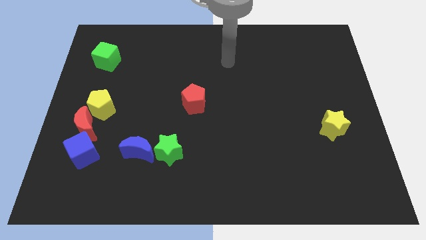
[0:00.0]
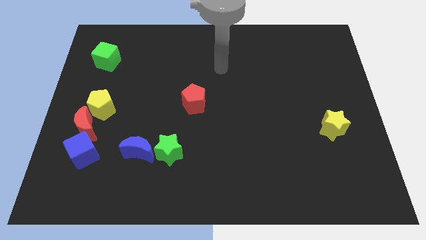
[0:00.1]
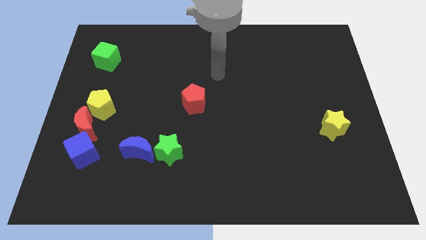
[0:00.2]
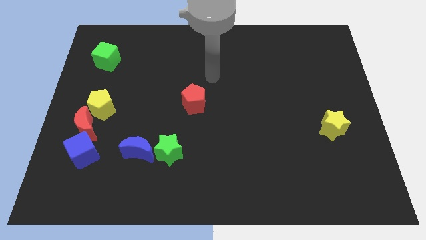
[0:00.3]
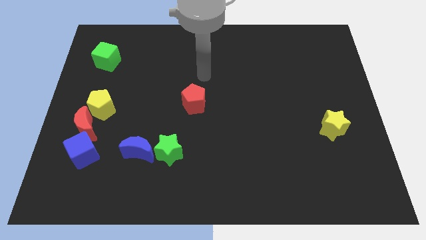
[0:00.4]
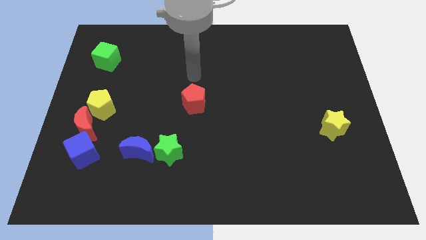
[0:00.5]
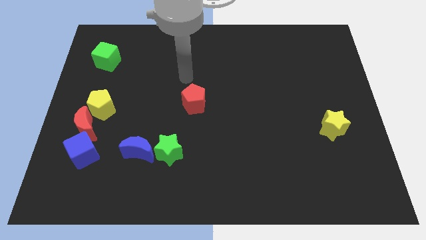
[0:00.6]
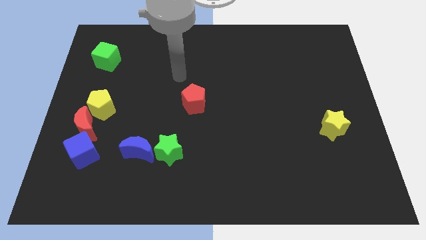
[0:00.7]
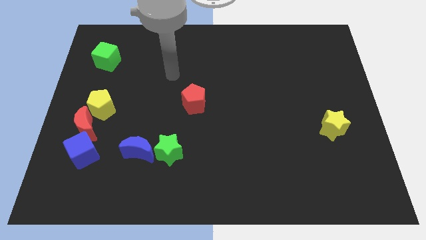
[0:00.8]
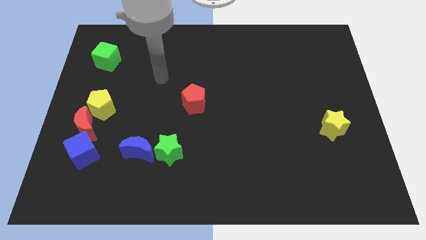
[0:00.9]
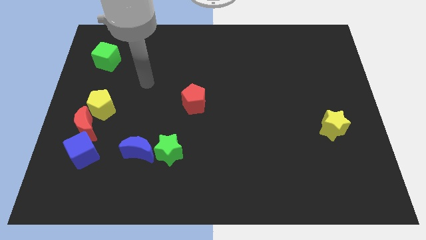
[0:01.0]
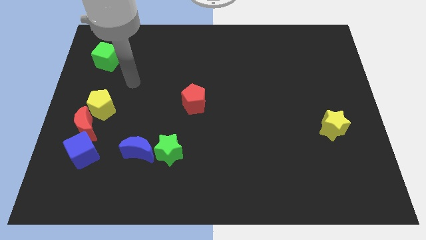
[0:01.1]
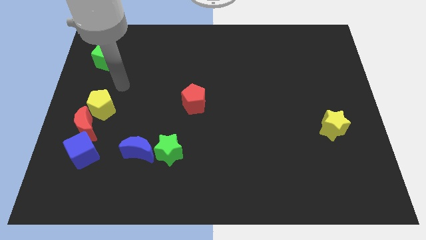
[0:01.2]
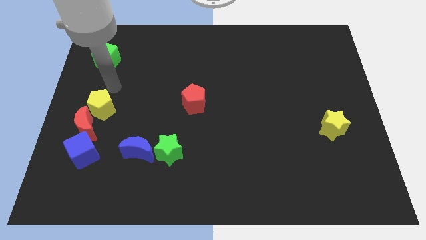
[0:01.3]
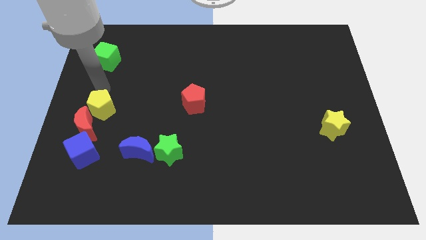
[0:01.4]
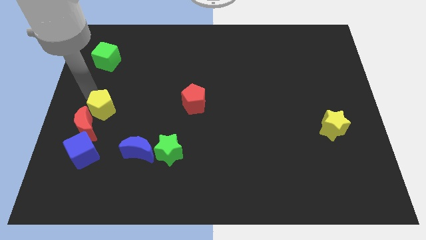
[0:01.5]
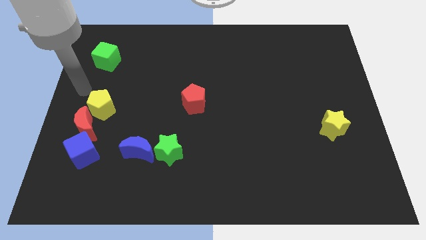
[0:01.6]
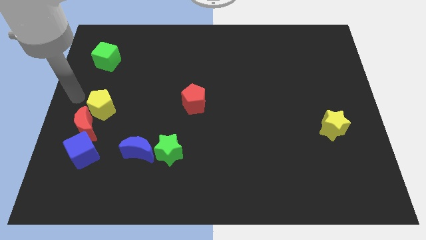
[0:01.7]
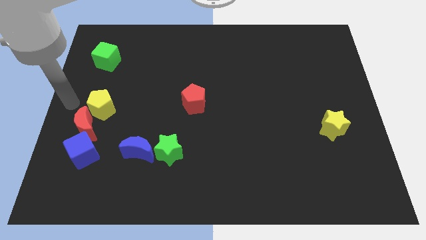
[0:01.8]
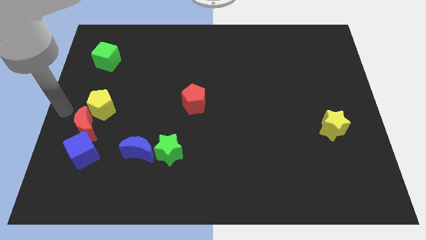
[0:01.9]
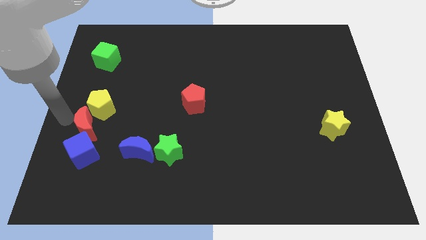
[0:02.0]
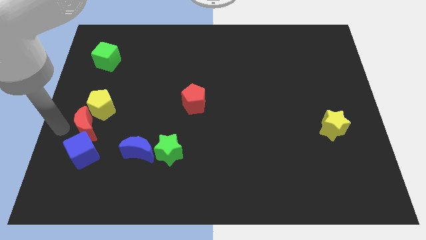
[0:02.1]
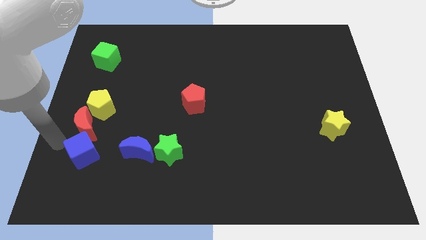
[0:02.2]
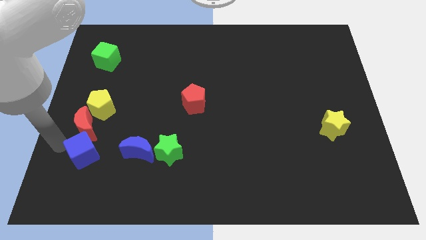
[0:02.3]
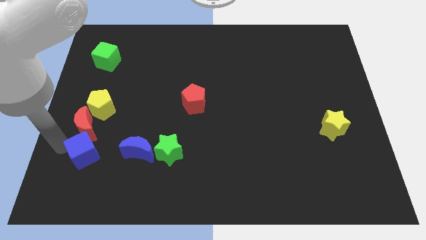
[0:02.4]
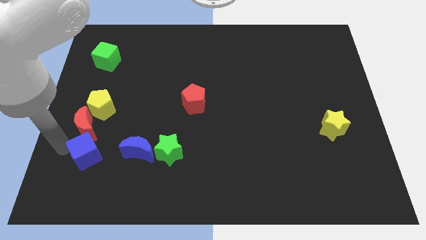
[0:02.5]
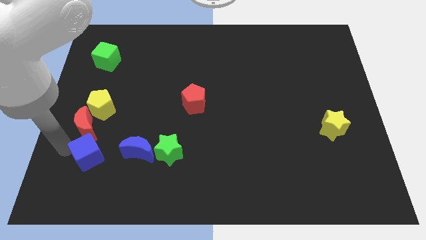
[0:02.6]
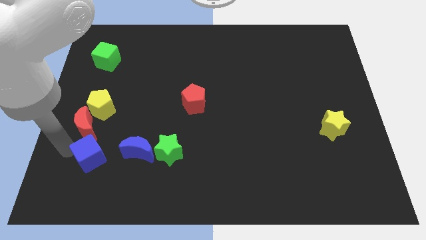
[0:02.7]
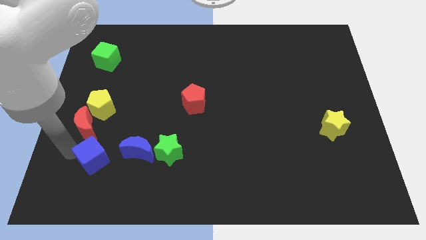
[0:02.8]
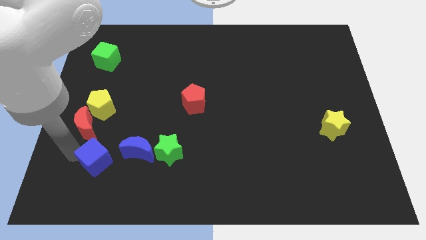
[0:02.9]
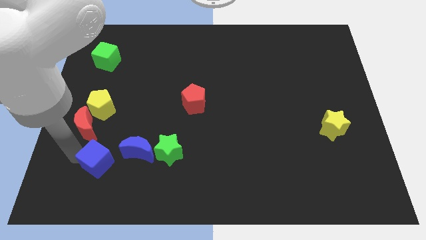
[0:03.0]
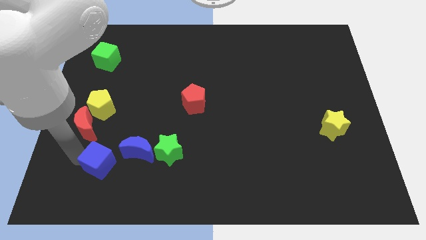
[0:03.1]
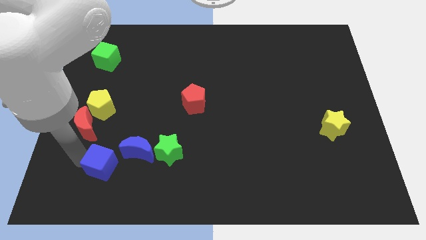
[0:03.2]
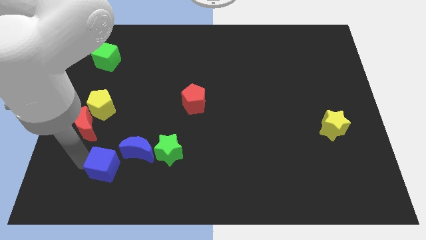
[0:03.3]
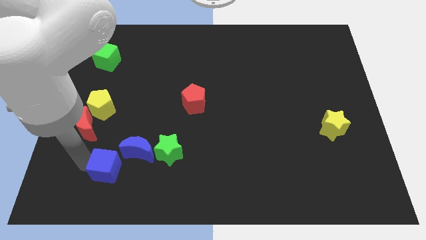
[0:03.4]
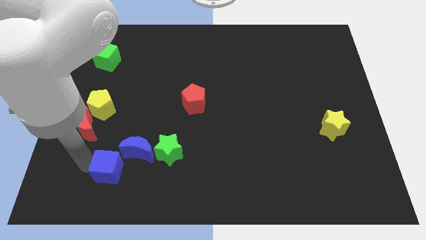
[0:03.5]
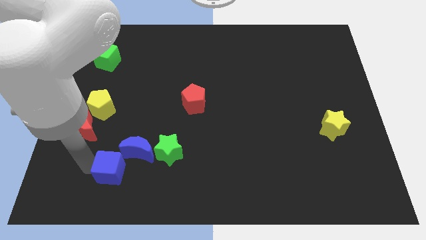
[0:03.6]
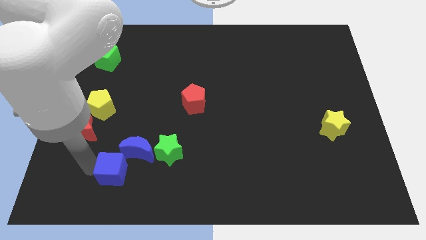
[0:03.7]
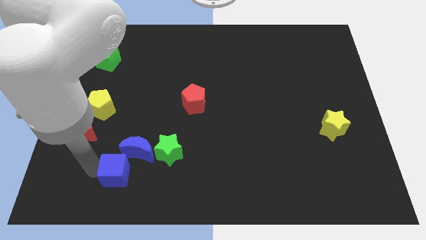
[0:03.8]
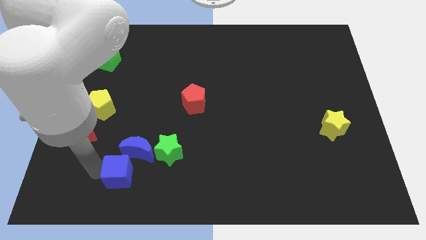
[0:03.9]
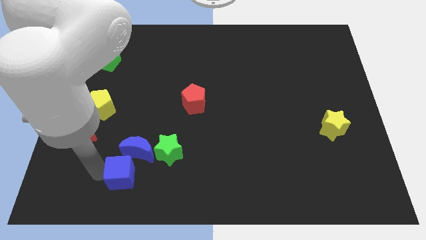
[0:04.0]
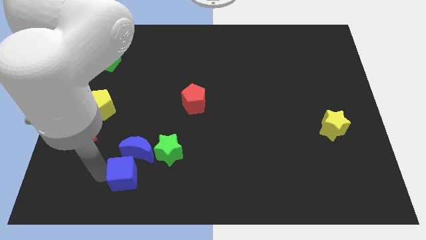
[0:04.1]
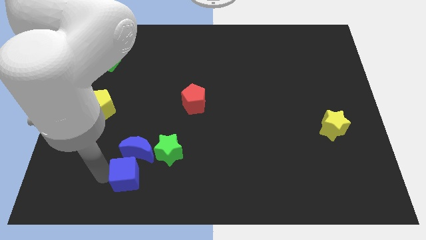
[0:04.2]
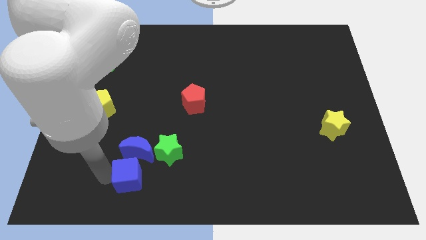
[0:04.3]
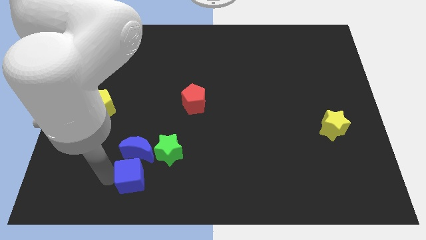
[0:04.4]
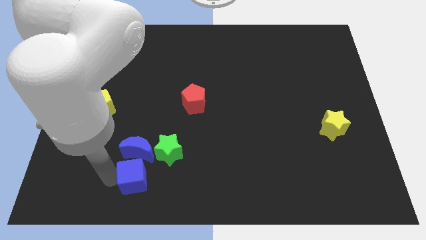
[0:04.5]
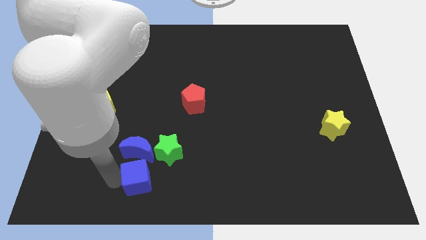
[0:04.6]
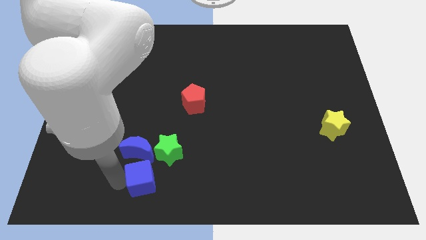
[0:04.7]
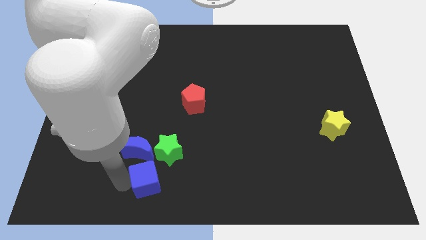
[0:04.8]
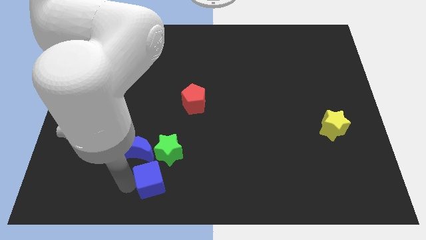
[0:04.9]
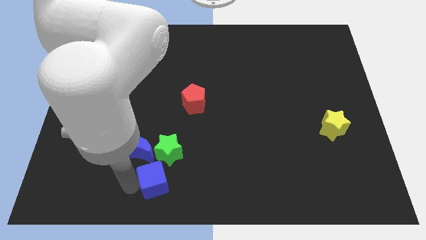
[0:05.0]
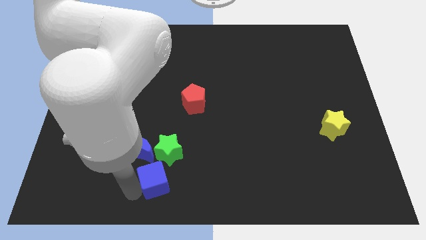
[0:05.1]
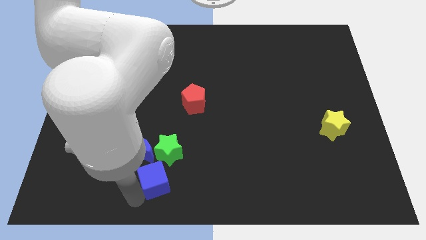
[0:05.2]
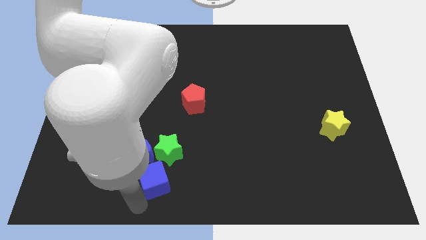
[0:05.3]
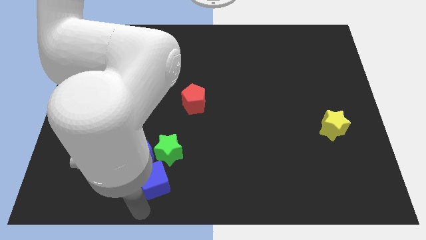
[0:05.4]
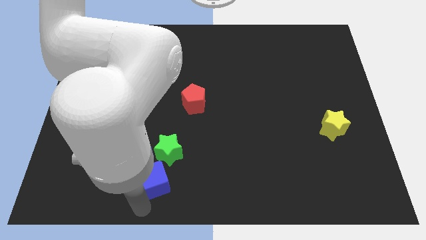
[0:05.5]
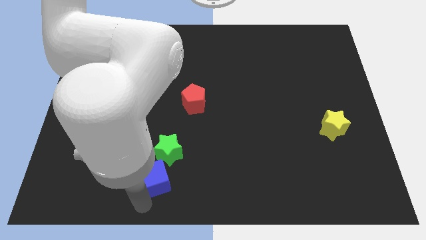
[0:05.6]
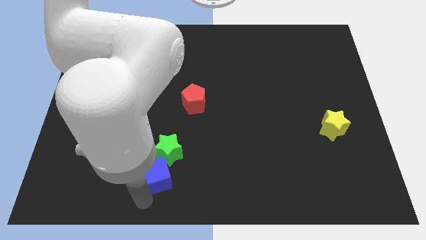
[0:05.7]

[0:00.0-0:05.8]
move the blue cube close to the green star

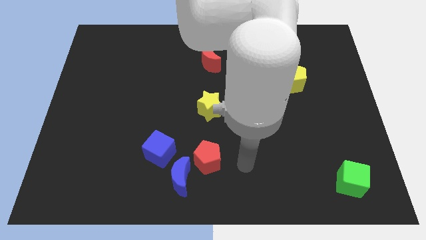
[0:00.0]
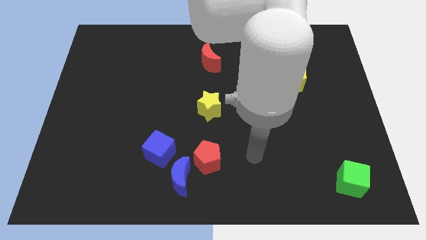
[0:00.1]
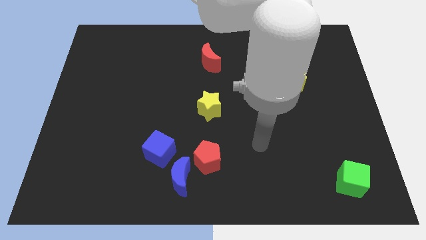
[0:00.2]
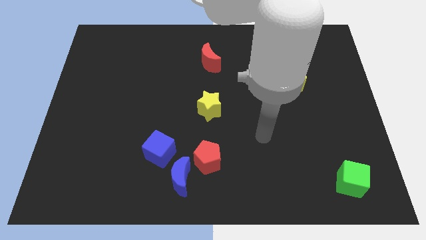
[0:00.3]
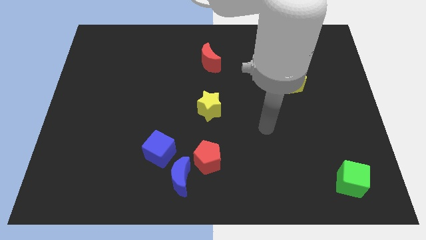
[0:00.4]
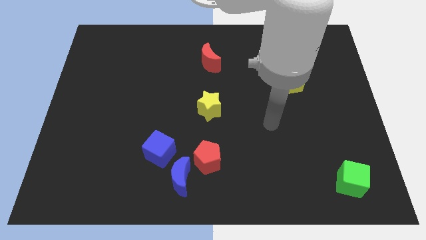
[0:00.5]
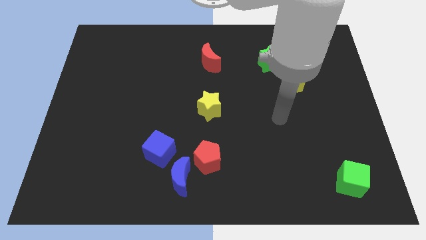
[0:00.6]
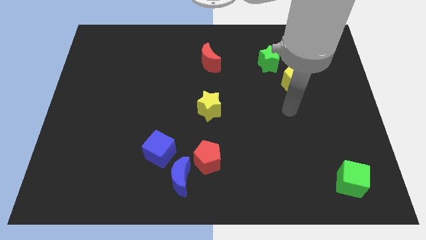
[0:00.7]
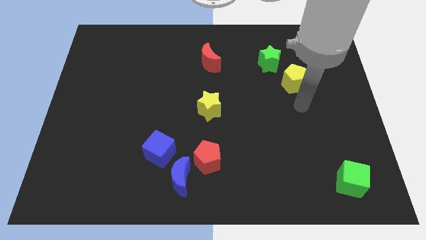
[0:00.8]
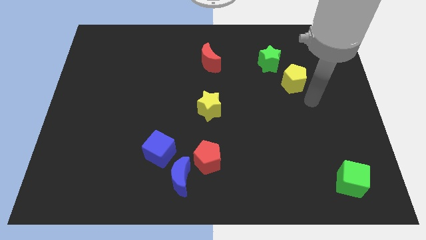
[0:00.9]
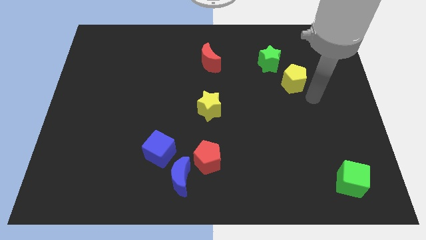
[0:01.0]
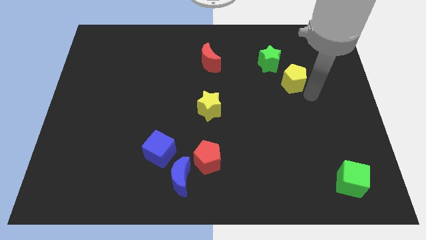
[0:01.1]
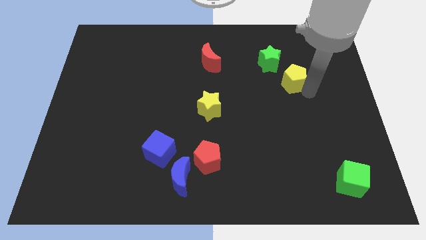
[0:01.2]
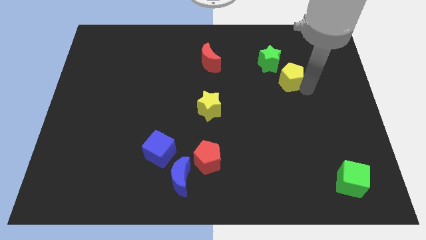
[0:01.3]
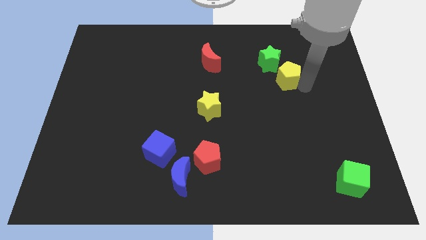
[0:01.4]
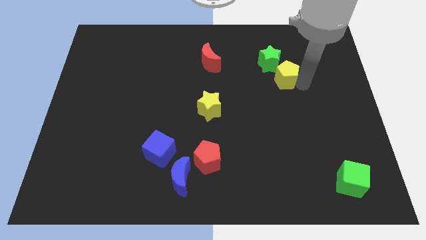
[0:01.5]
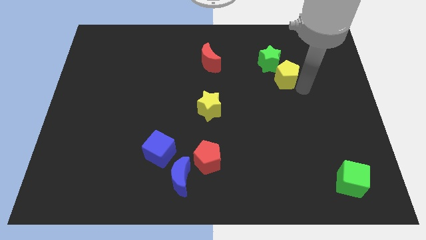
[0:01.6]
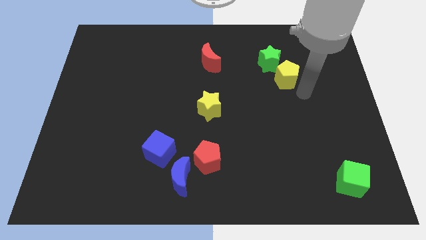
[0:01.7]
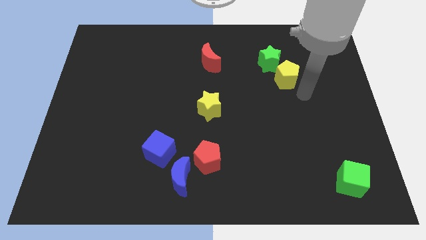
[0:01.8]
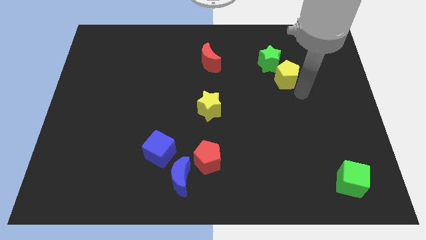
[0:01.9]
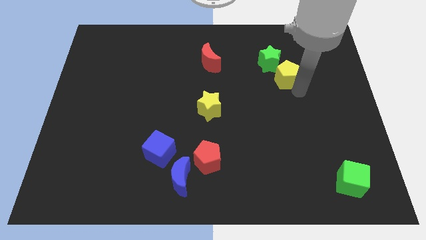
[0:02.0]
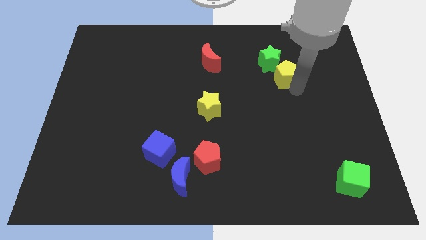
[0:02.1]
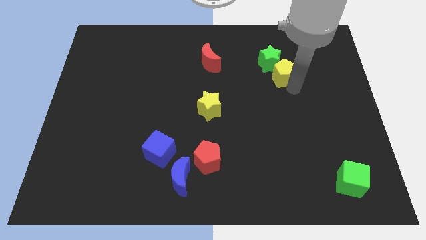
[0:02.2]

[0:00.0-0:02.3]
slide the yellow pentagon towards the green star
